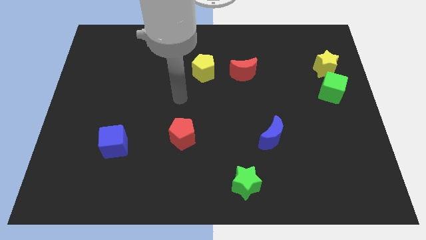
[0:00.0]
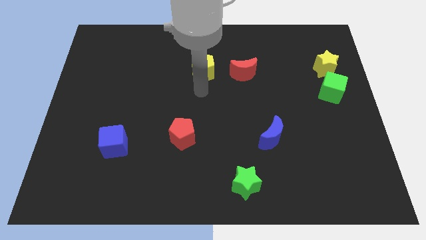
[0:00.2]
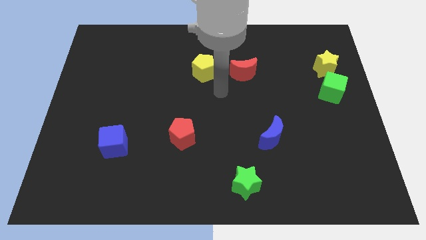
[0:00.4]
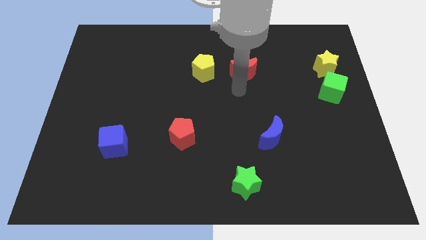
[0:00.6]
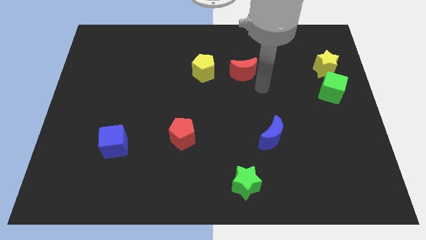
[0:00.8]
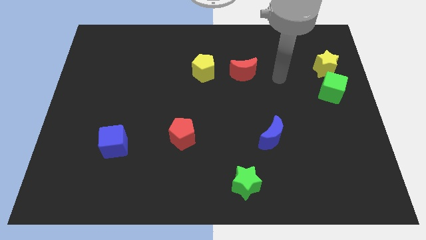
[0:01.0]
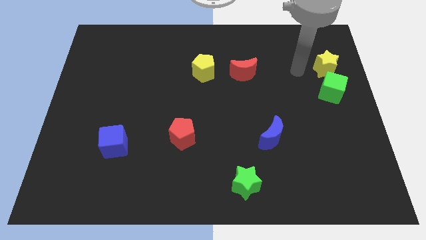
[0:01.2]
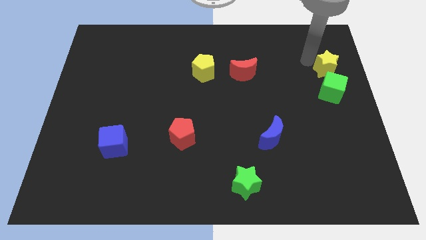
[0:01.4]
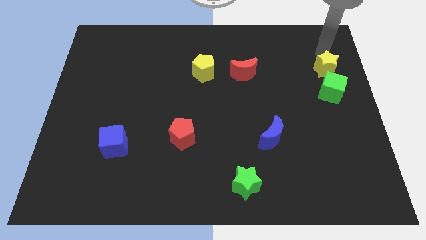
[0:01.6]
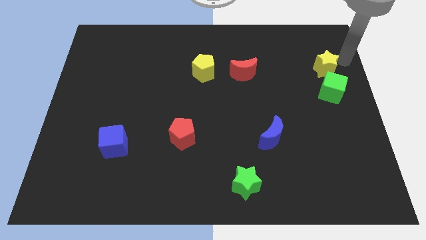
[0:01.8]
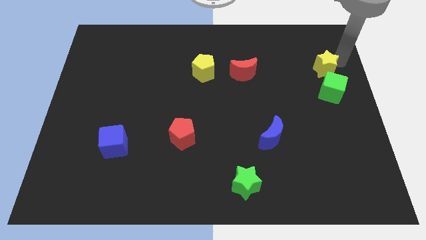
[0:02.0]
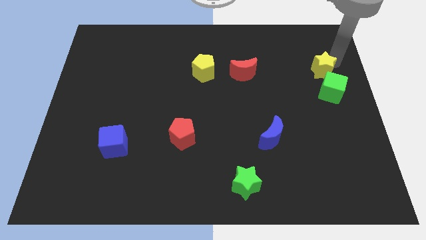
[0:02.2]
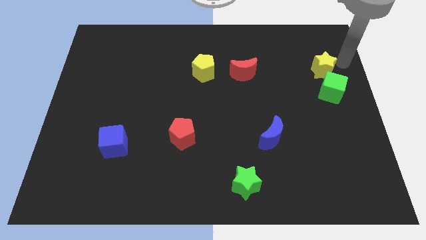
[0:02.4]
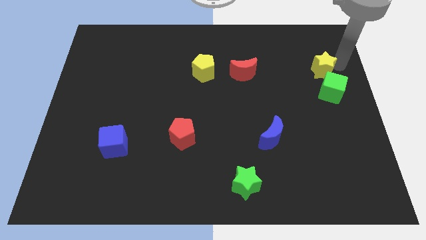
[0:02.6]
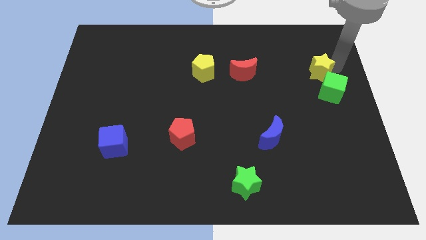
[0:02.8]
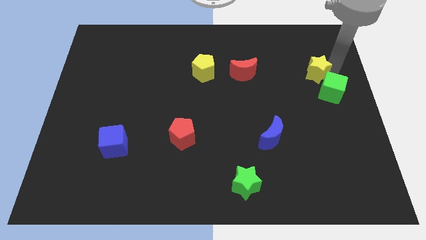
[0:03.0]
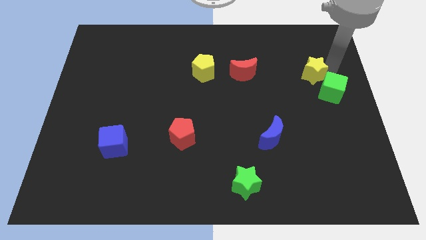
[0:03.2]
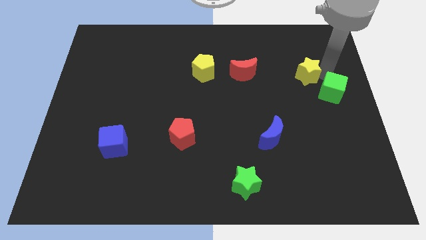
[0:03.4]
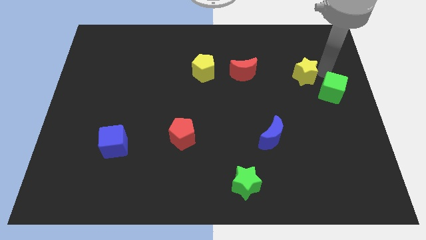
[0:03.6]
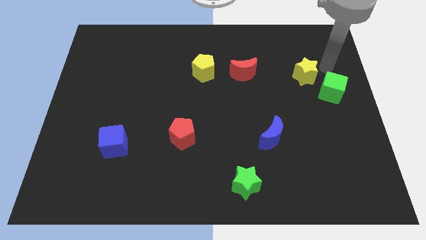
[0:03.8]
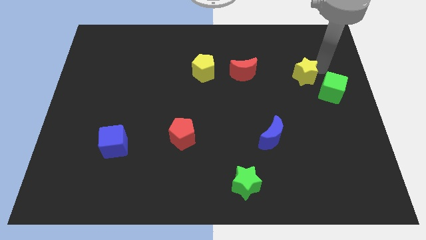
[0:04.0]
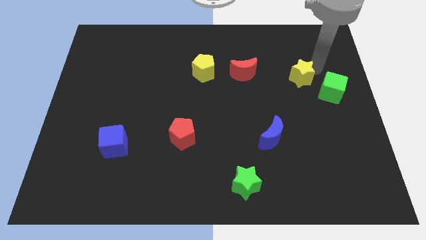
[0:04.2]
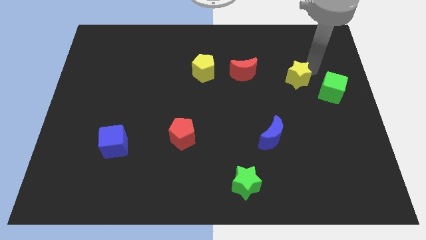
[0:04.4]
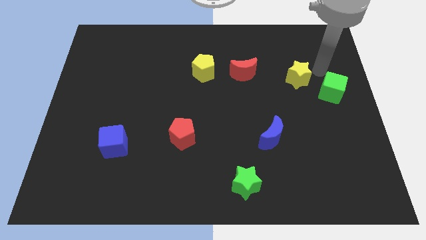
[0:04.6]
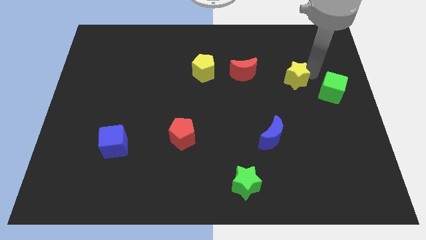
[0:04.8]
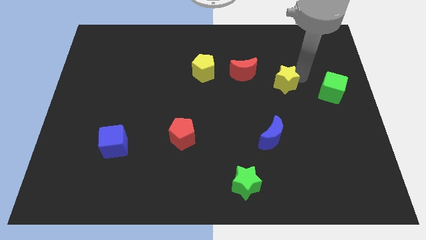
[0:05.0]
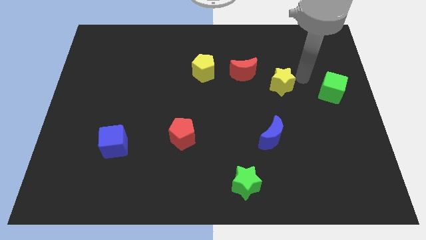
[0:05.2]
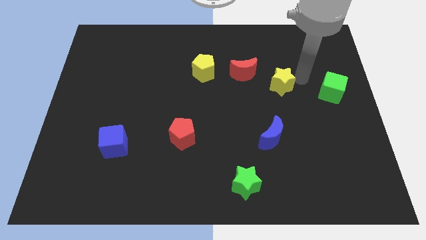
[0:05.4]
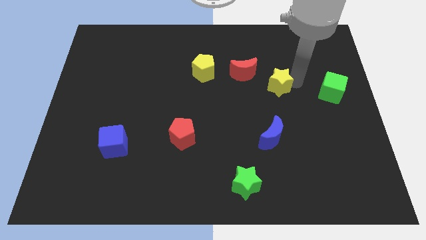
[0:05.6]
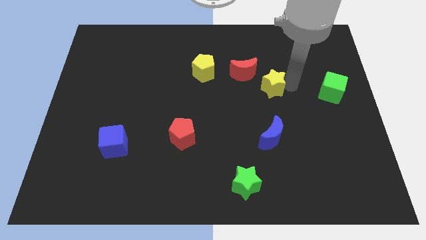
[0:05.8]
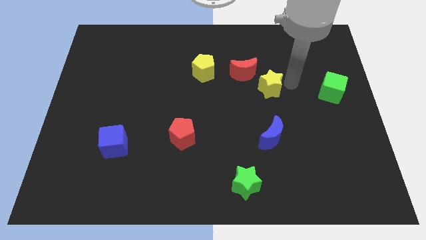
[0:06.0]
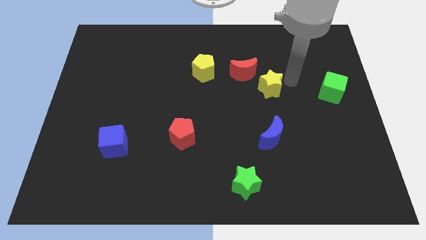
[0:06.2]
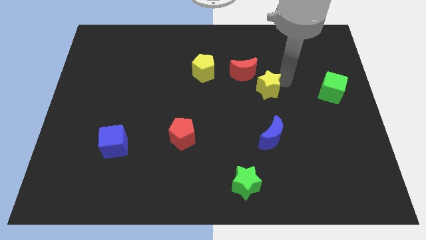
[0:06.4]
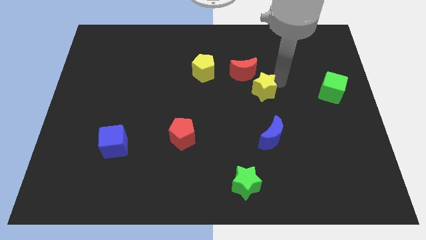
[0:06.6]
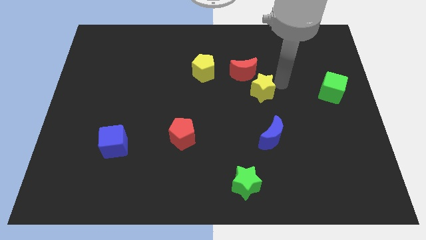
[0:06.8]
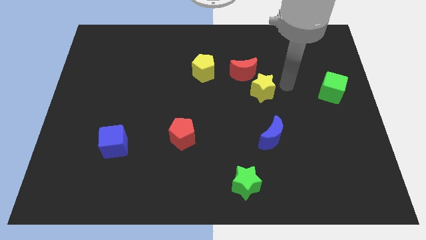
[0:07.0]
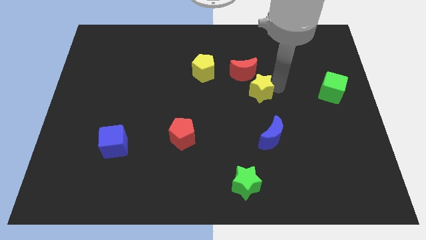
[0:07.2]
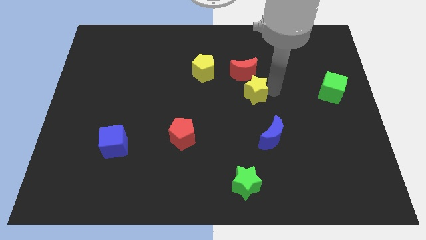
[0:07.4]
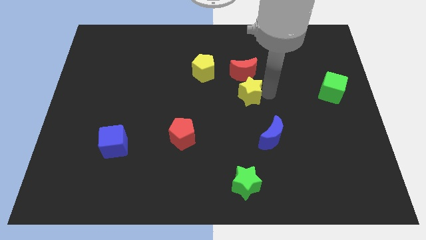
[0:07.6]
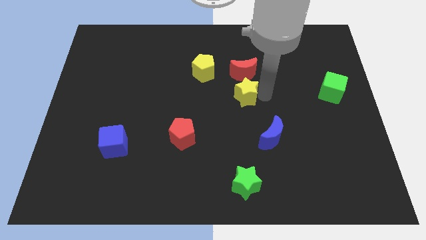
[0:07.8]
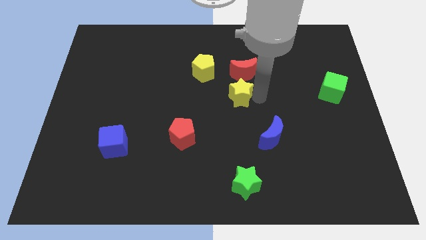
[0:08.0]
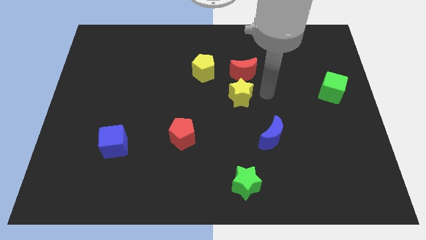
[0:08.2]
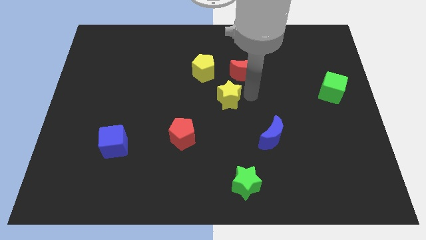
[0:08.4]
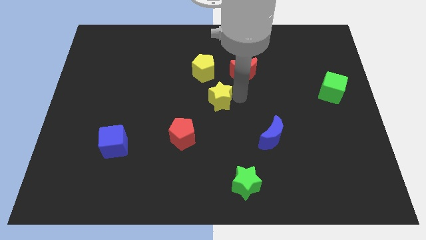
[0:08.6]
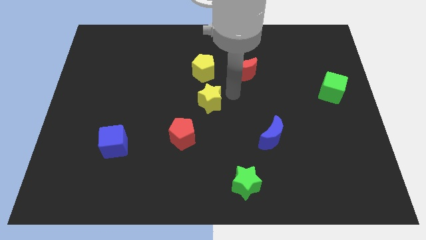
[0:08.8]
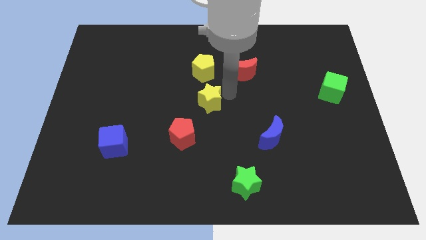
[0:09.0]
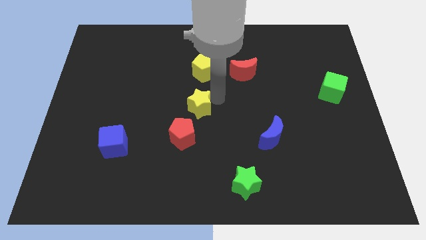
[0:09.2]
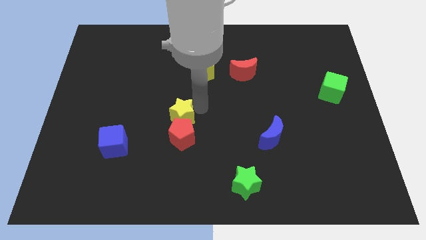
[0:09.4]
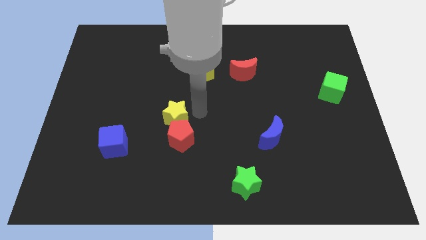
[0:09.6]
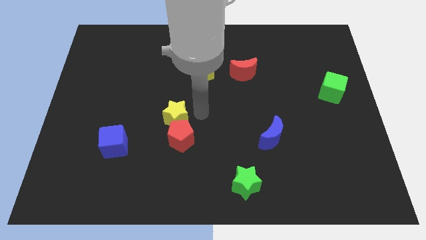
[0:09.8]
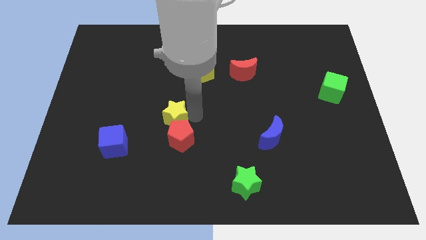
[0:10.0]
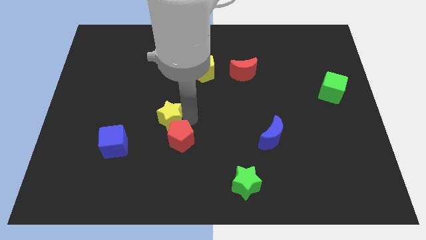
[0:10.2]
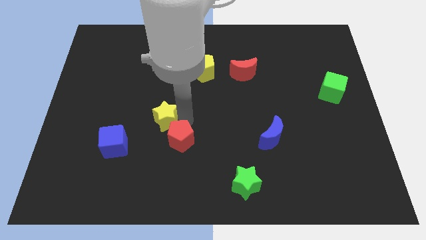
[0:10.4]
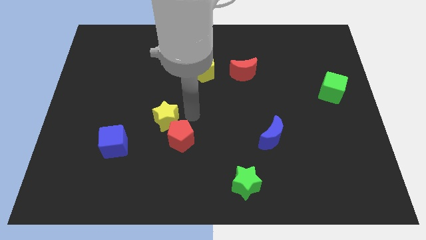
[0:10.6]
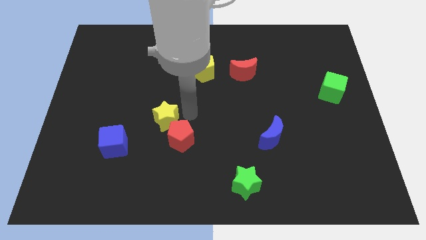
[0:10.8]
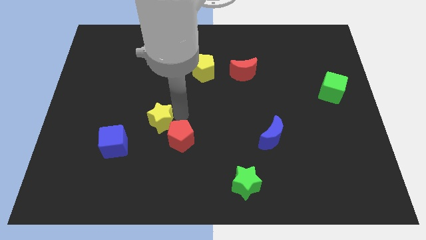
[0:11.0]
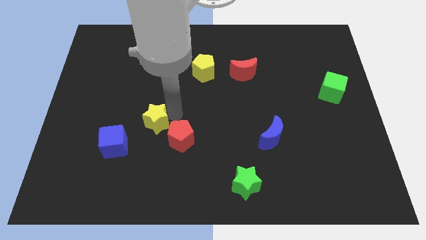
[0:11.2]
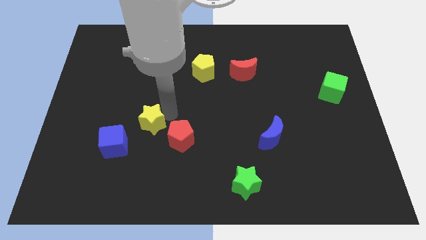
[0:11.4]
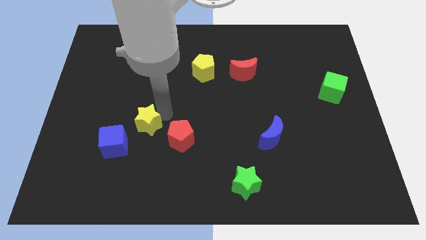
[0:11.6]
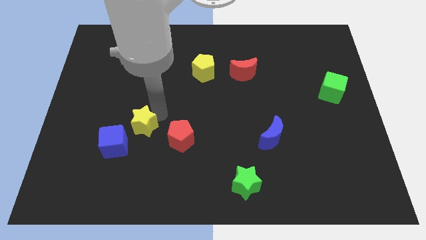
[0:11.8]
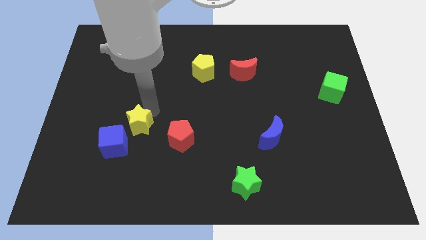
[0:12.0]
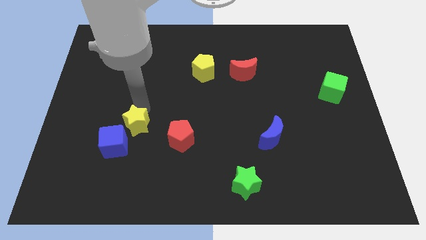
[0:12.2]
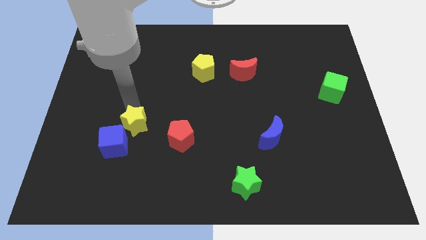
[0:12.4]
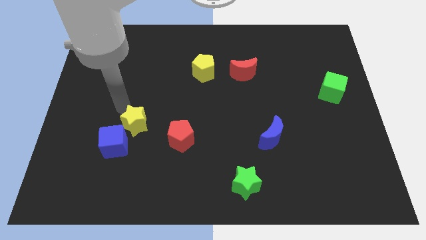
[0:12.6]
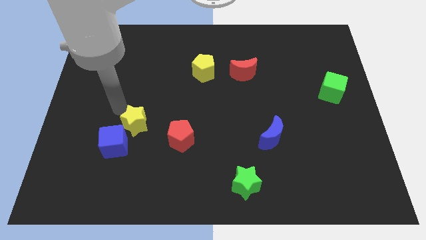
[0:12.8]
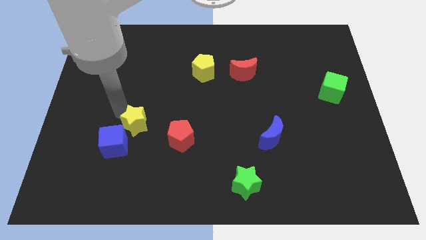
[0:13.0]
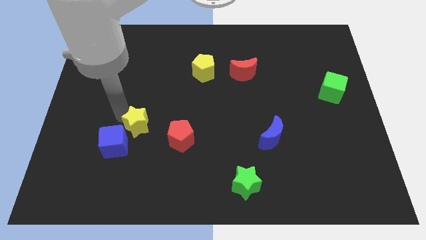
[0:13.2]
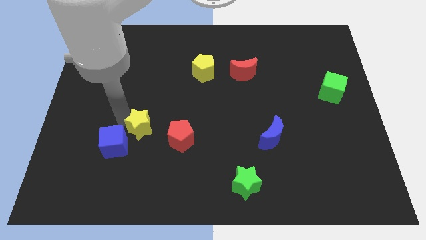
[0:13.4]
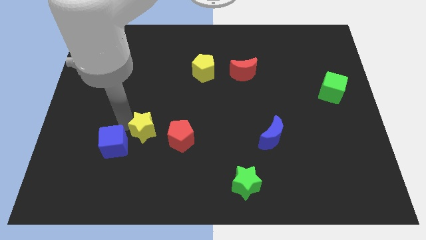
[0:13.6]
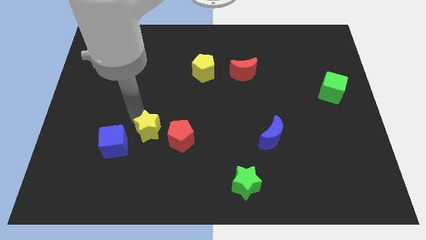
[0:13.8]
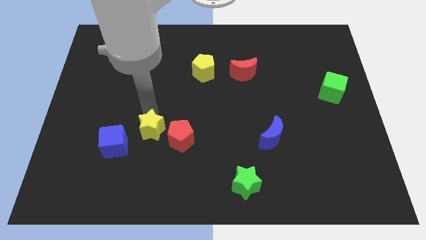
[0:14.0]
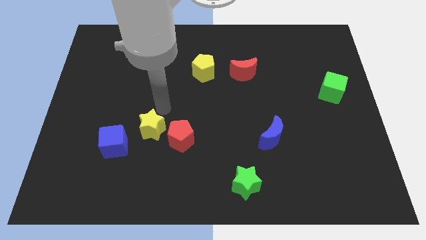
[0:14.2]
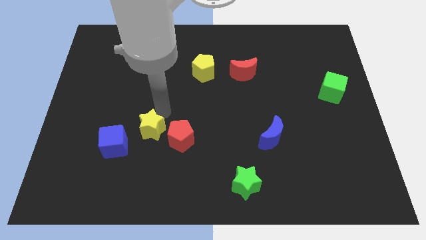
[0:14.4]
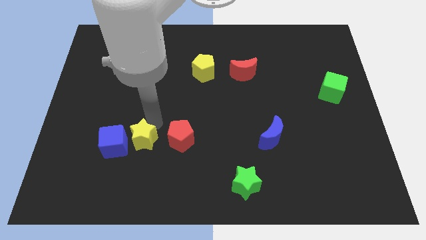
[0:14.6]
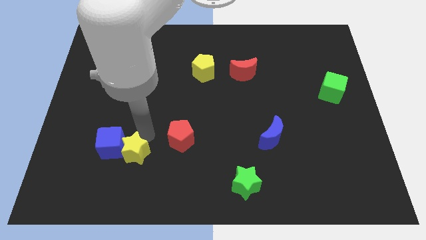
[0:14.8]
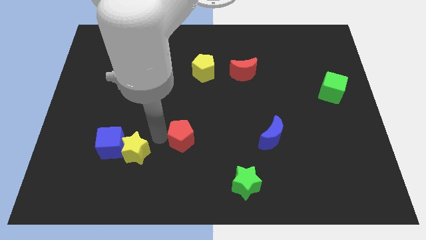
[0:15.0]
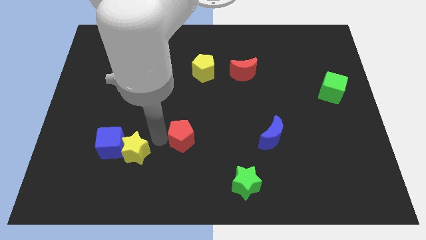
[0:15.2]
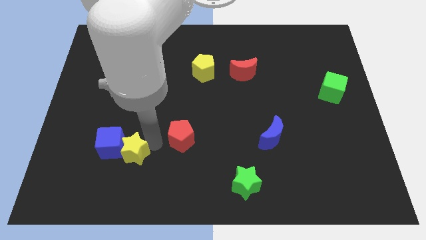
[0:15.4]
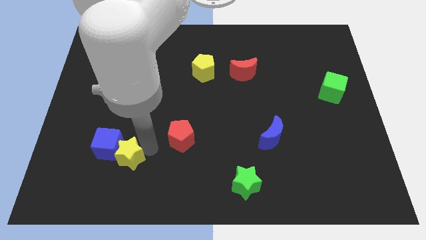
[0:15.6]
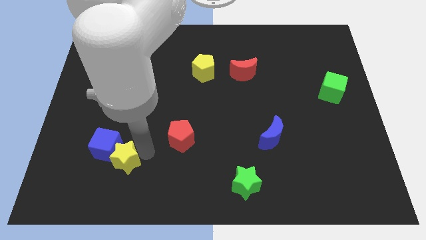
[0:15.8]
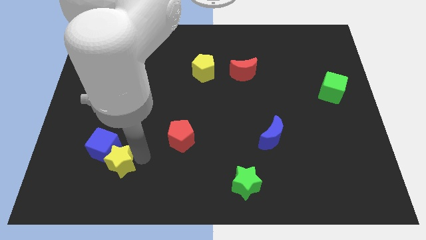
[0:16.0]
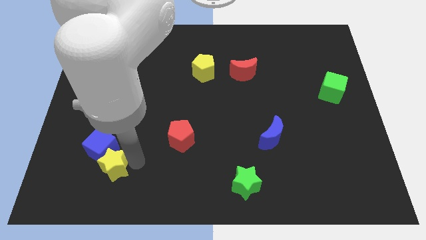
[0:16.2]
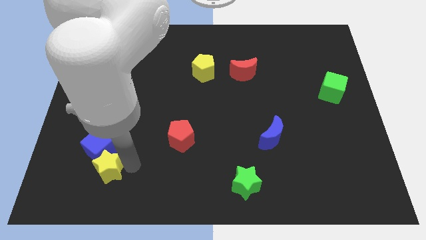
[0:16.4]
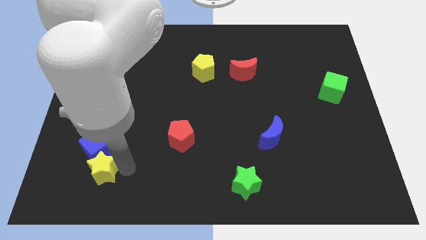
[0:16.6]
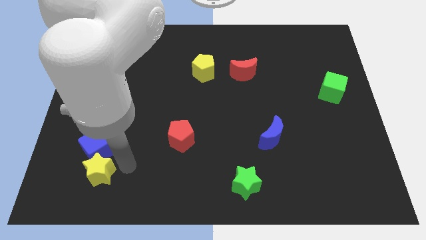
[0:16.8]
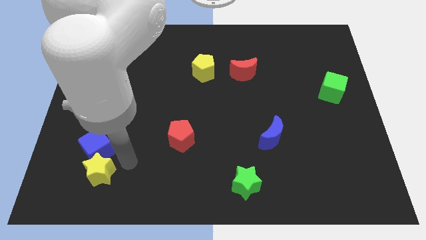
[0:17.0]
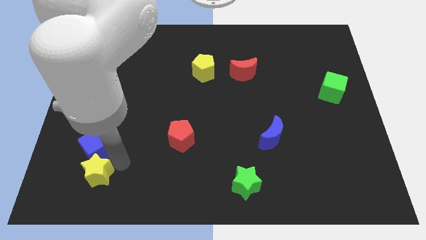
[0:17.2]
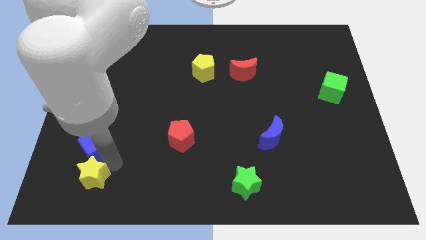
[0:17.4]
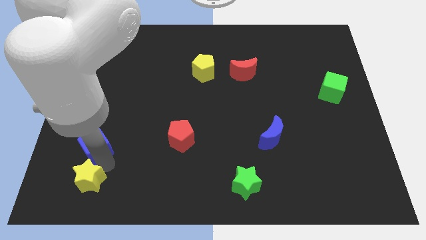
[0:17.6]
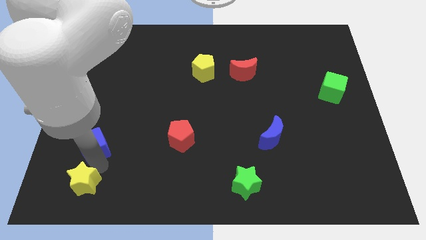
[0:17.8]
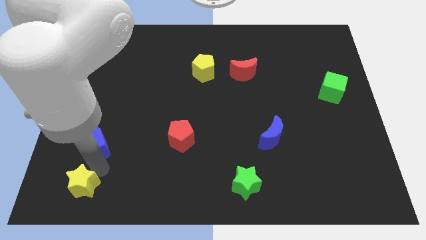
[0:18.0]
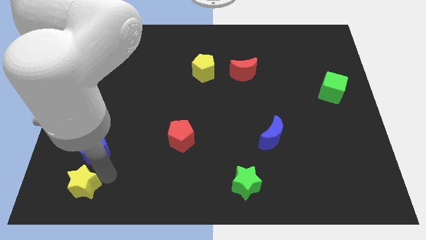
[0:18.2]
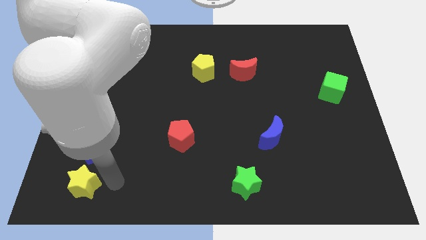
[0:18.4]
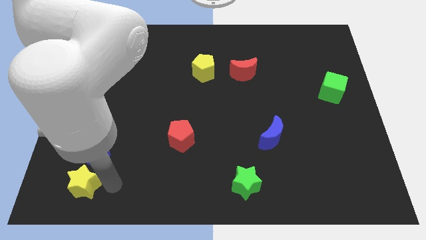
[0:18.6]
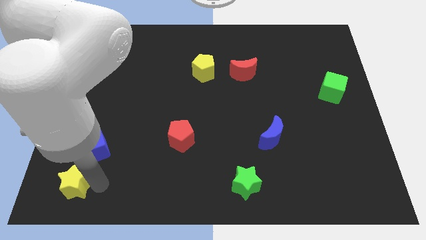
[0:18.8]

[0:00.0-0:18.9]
slide the yellow star to the bottom left corner
